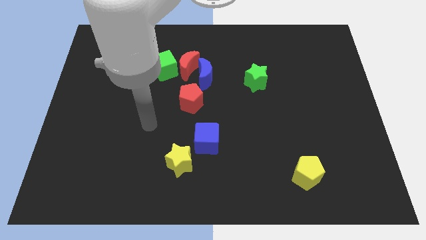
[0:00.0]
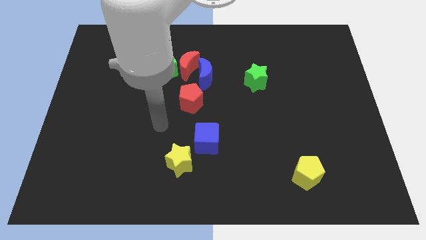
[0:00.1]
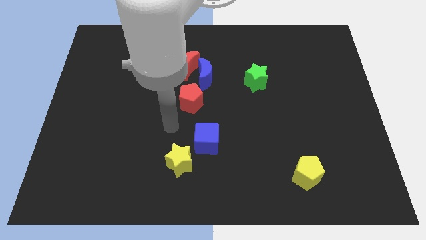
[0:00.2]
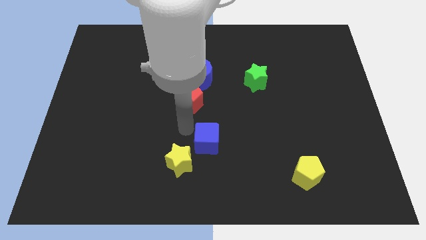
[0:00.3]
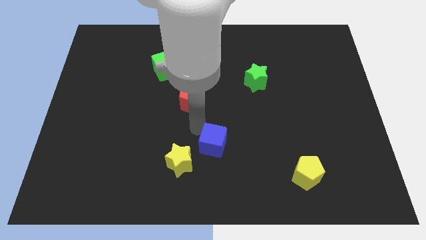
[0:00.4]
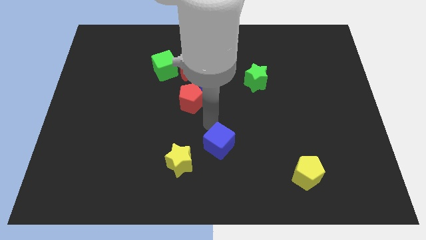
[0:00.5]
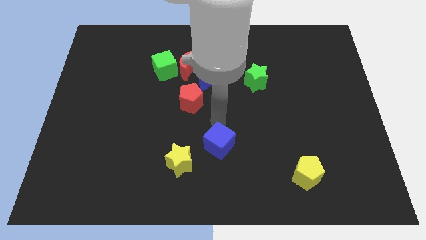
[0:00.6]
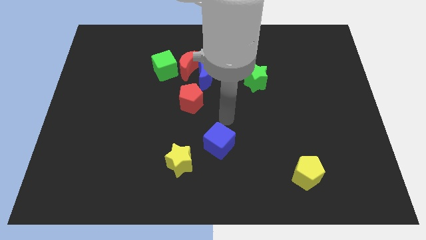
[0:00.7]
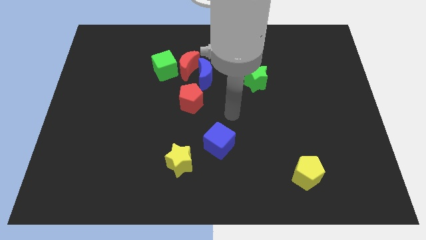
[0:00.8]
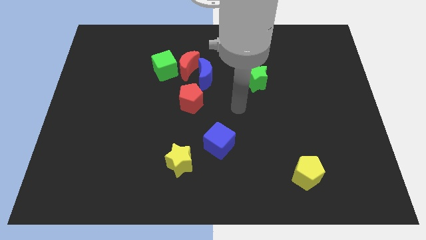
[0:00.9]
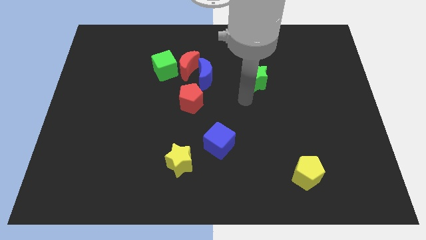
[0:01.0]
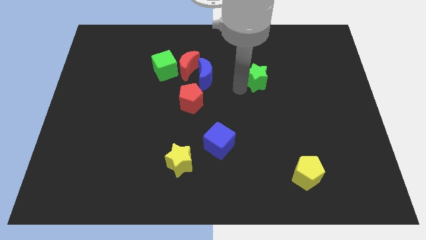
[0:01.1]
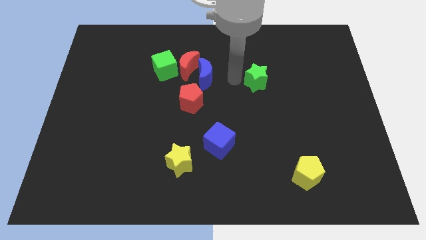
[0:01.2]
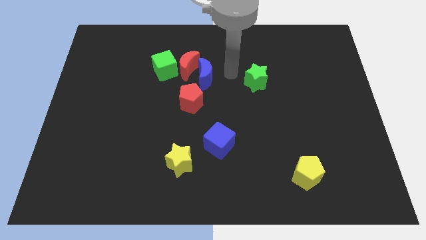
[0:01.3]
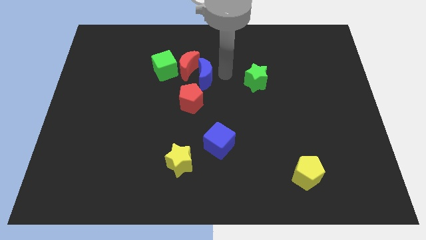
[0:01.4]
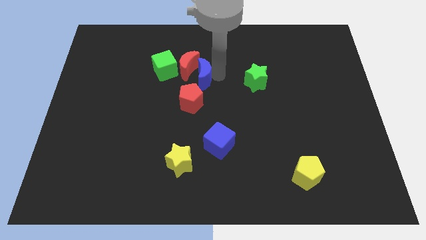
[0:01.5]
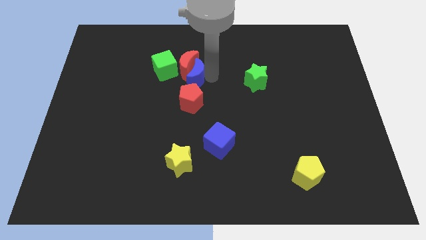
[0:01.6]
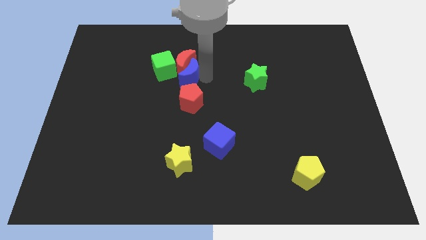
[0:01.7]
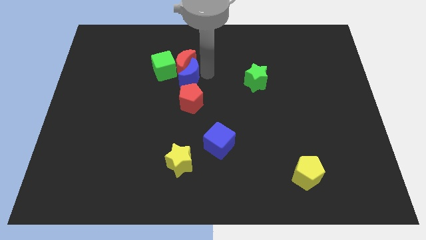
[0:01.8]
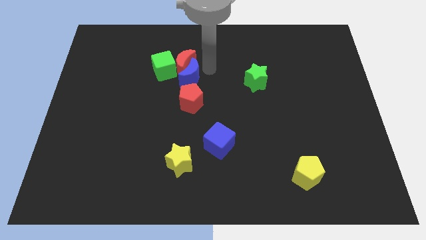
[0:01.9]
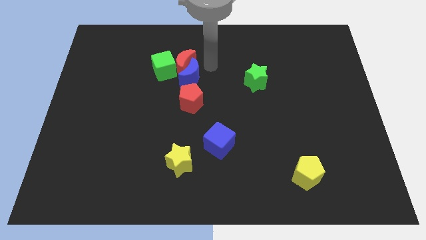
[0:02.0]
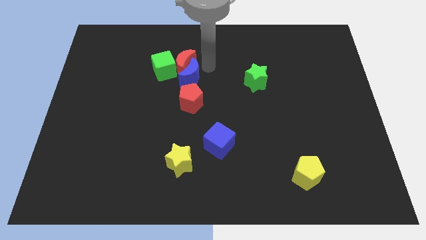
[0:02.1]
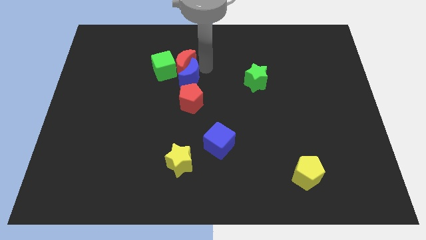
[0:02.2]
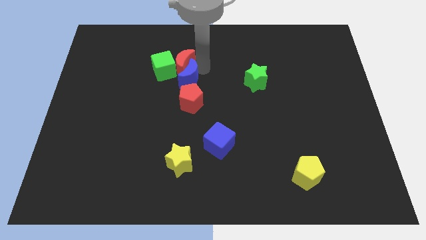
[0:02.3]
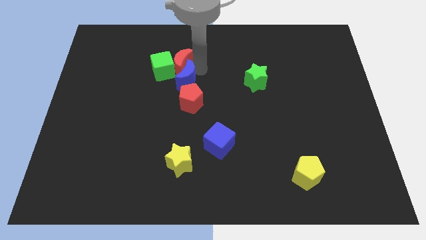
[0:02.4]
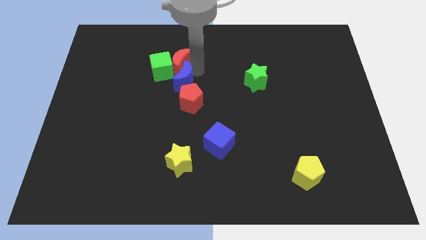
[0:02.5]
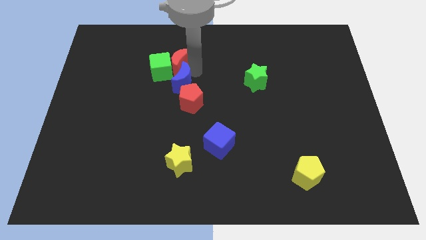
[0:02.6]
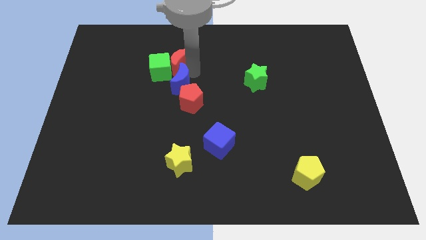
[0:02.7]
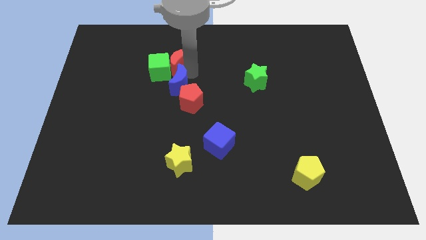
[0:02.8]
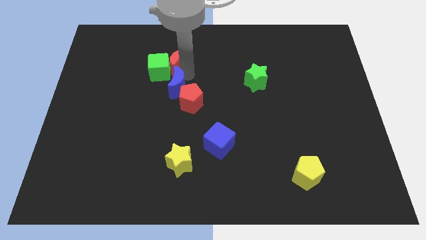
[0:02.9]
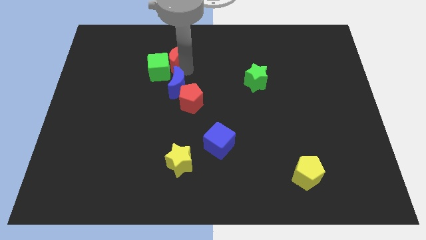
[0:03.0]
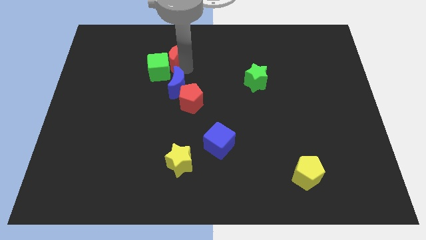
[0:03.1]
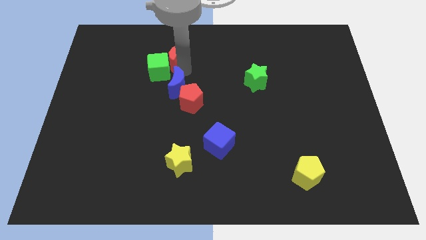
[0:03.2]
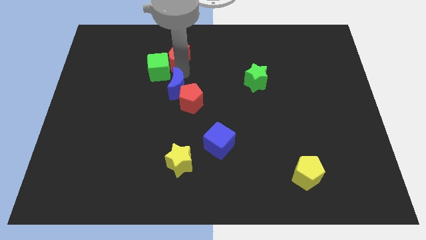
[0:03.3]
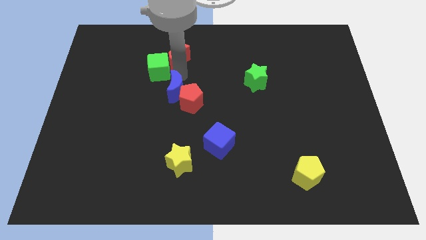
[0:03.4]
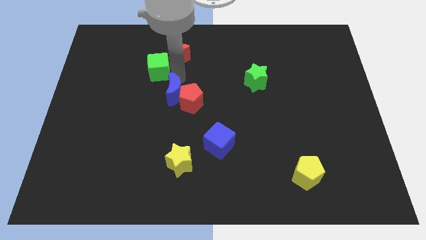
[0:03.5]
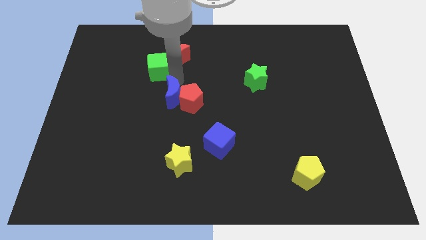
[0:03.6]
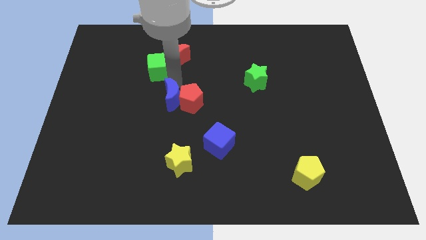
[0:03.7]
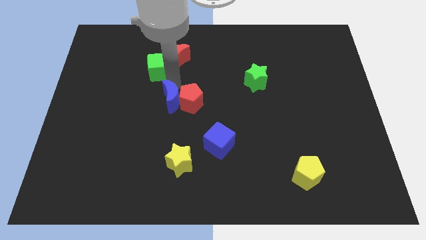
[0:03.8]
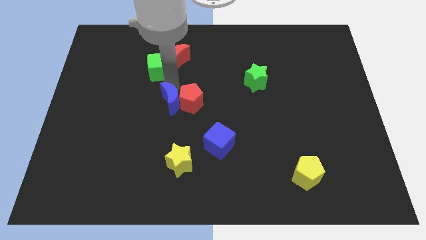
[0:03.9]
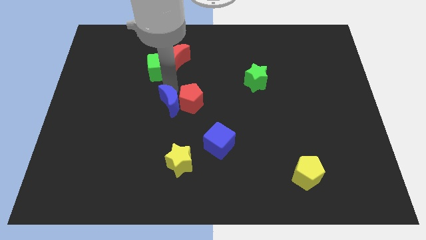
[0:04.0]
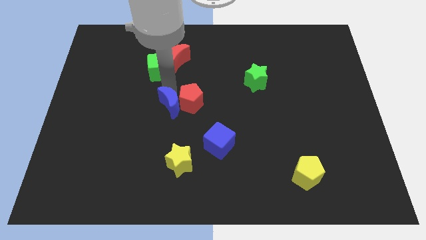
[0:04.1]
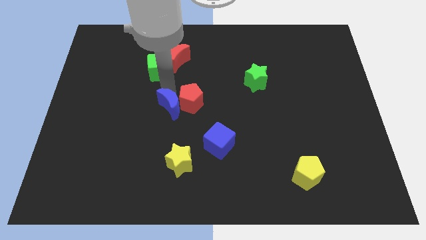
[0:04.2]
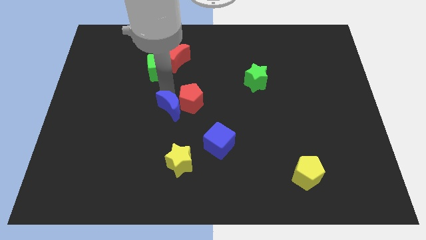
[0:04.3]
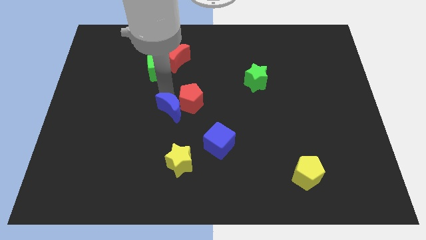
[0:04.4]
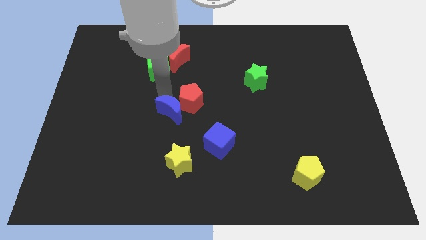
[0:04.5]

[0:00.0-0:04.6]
slide the blue moon to the bottom side of the red pentagon

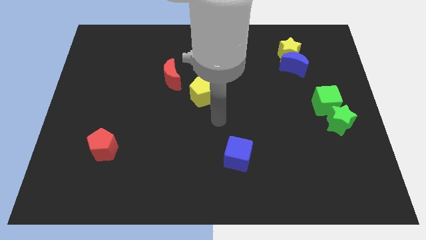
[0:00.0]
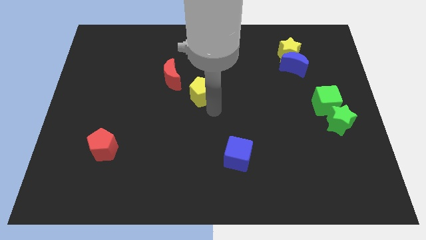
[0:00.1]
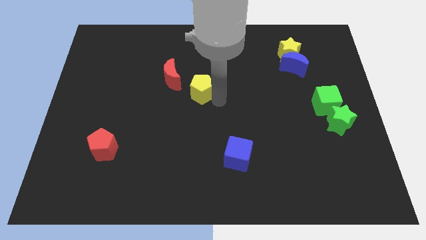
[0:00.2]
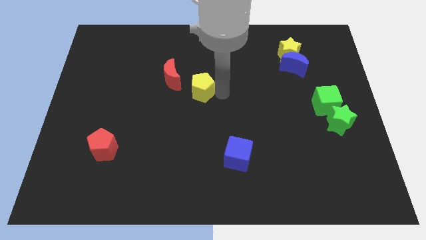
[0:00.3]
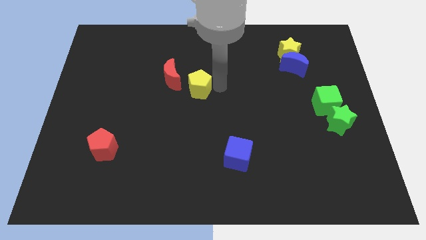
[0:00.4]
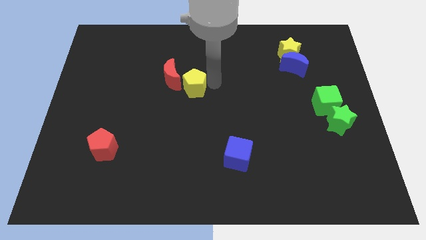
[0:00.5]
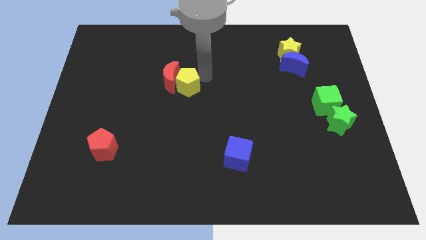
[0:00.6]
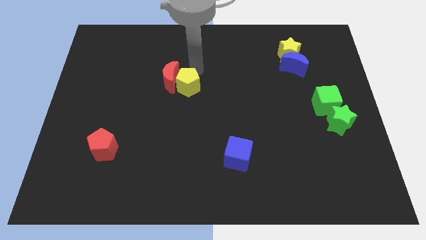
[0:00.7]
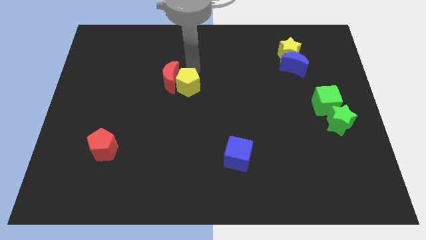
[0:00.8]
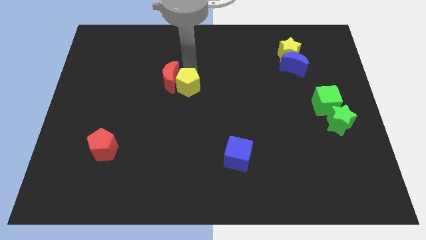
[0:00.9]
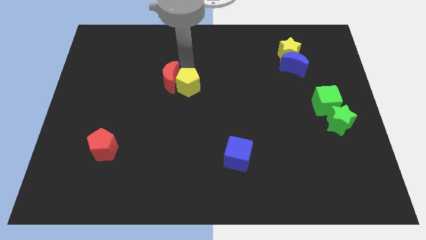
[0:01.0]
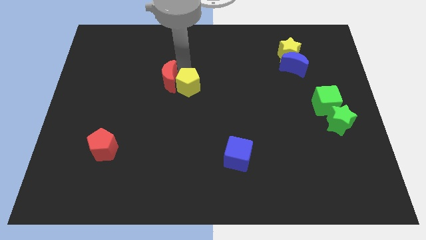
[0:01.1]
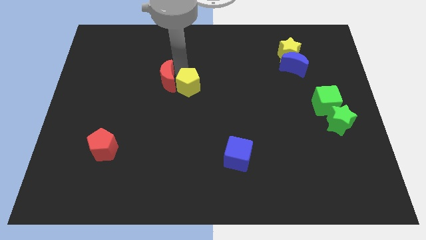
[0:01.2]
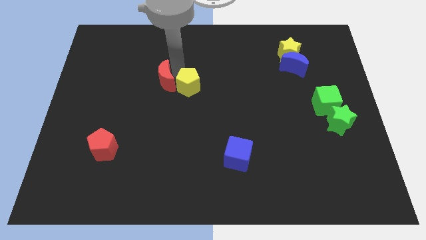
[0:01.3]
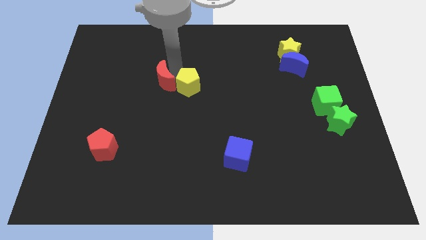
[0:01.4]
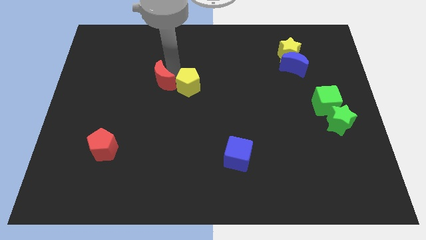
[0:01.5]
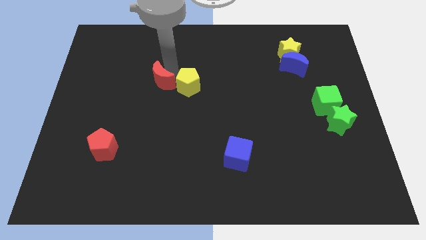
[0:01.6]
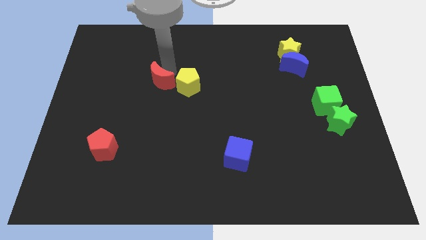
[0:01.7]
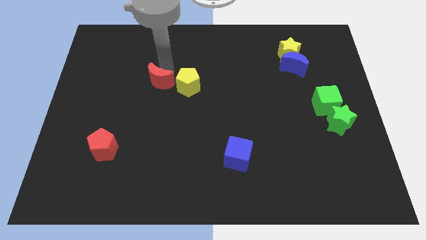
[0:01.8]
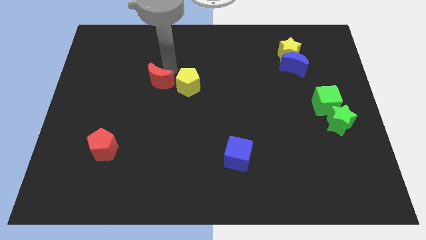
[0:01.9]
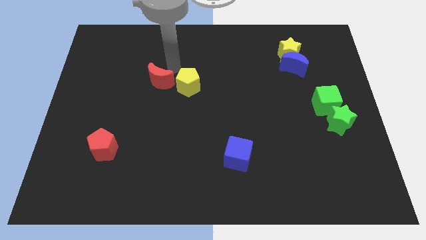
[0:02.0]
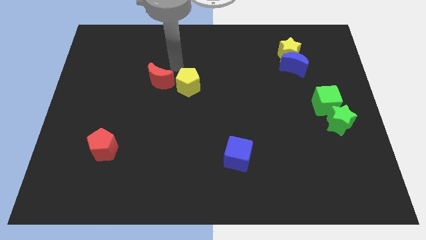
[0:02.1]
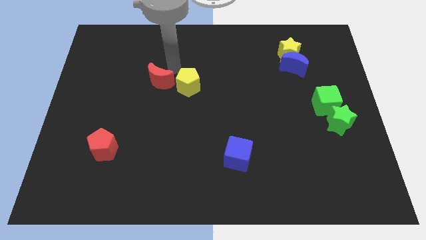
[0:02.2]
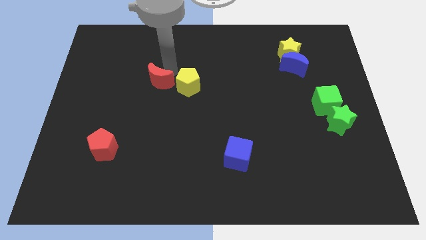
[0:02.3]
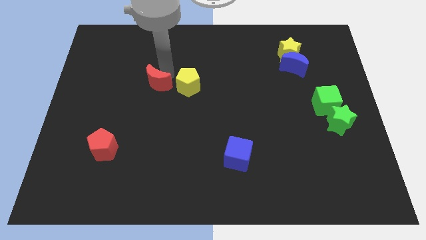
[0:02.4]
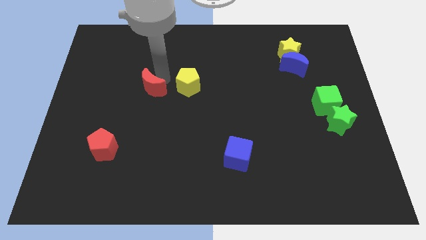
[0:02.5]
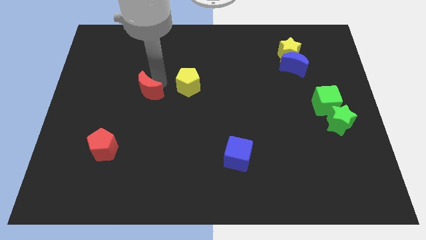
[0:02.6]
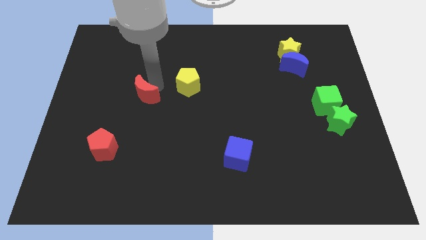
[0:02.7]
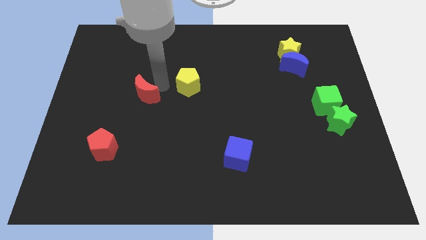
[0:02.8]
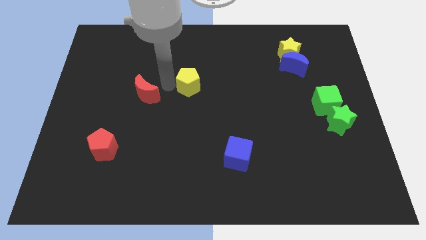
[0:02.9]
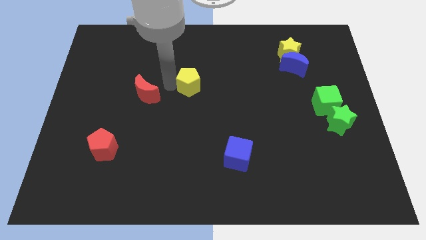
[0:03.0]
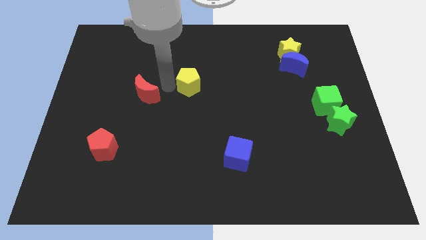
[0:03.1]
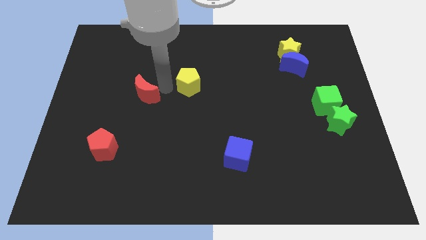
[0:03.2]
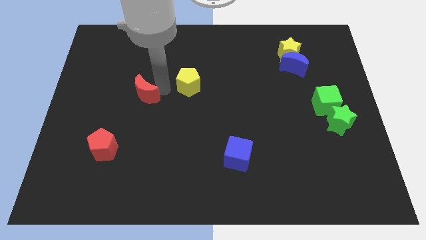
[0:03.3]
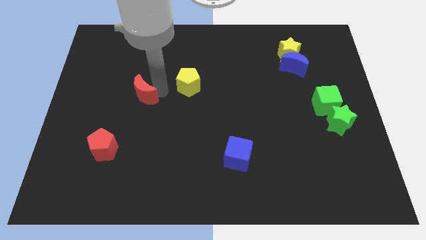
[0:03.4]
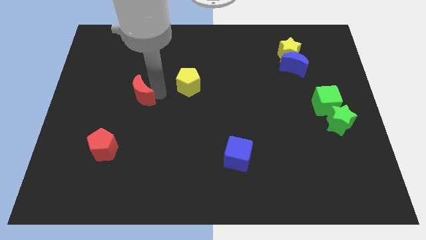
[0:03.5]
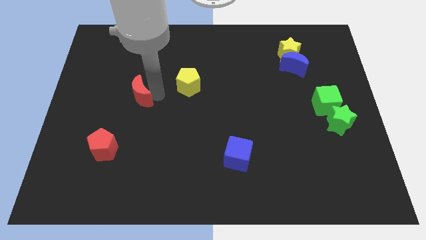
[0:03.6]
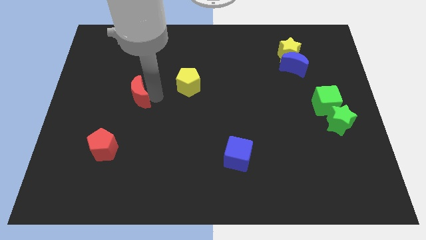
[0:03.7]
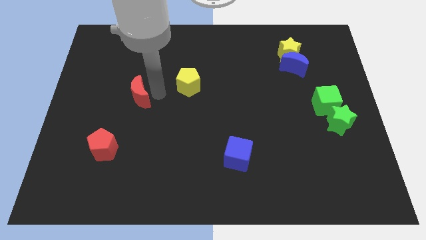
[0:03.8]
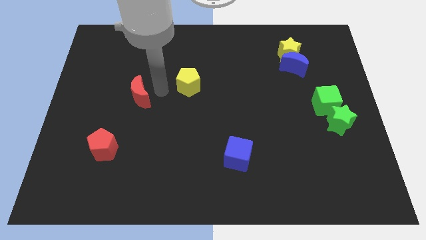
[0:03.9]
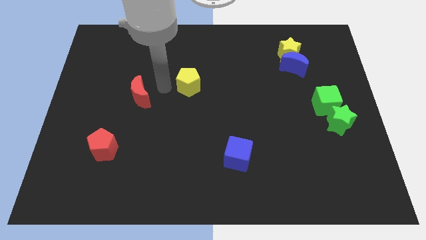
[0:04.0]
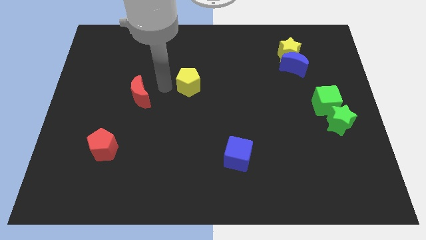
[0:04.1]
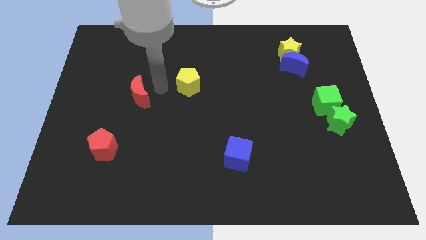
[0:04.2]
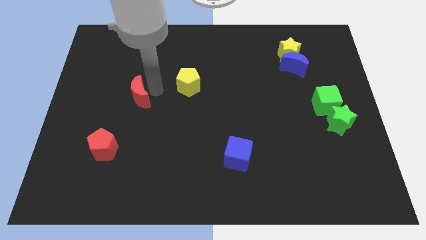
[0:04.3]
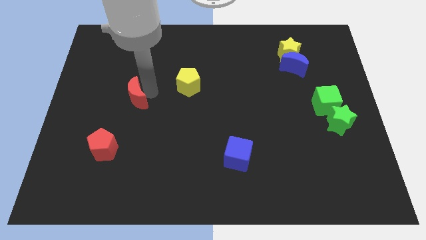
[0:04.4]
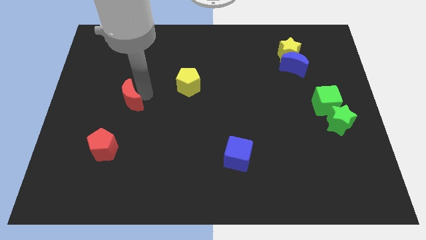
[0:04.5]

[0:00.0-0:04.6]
slide the red moon to the top of the red pentagon
